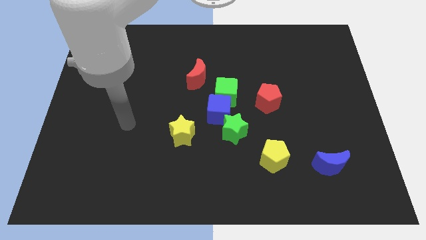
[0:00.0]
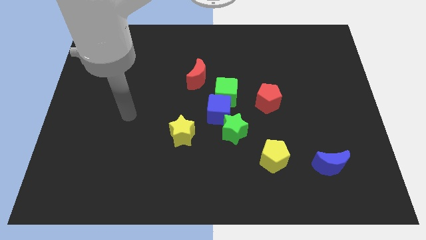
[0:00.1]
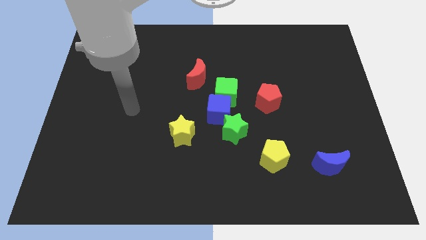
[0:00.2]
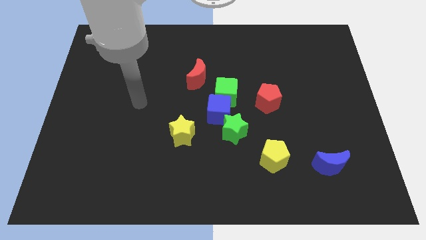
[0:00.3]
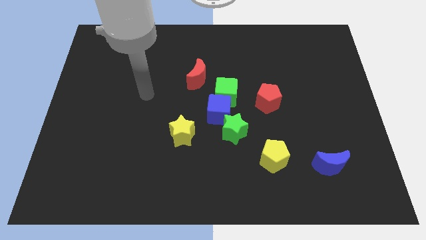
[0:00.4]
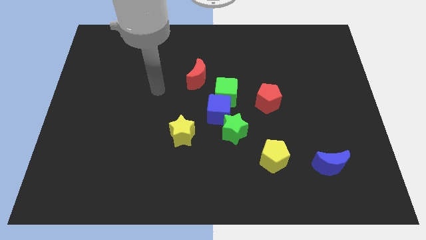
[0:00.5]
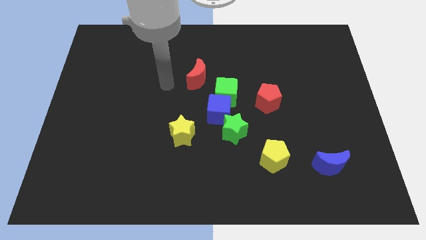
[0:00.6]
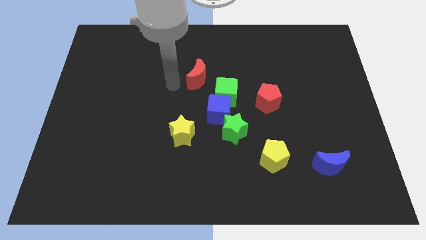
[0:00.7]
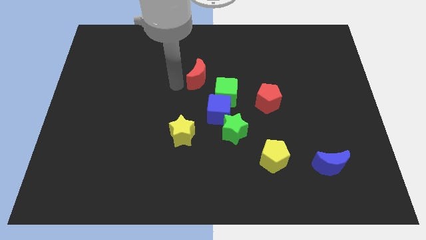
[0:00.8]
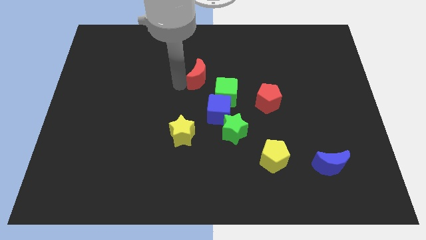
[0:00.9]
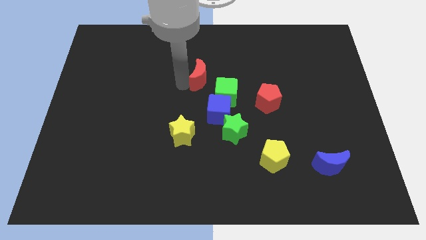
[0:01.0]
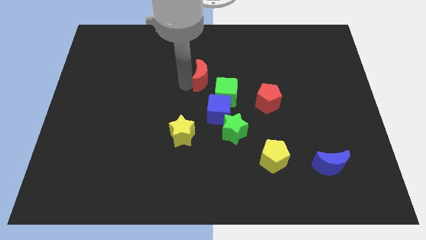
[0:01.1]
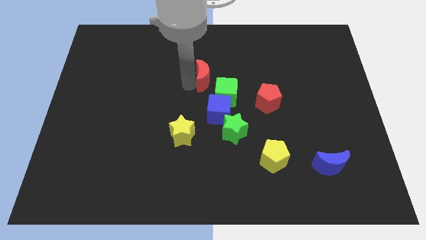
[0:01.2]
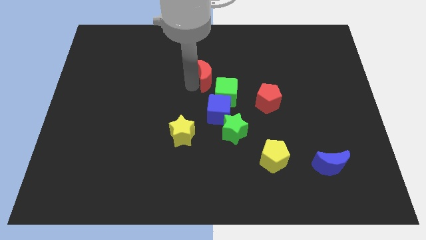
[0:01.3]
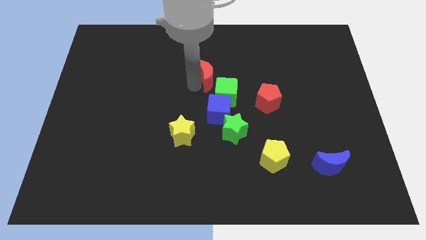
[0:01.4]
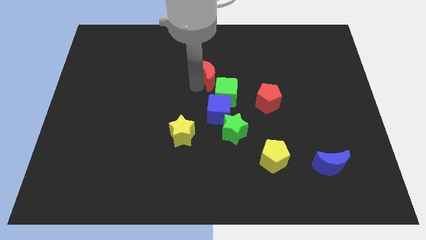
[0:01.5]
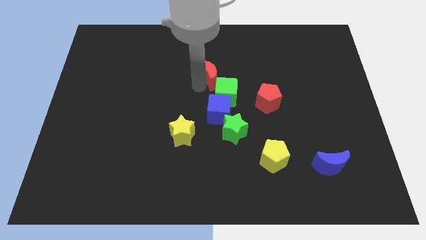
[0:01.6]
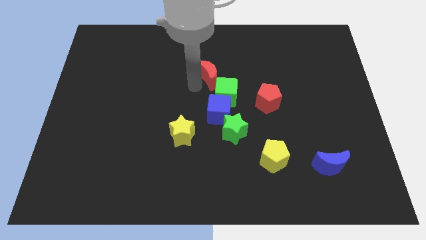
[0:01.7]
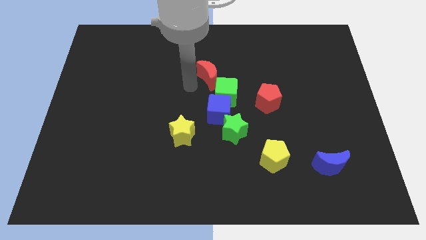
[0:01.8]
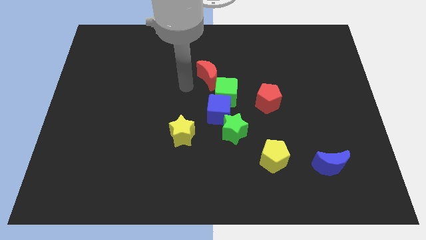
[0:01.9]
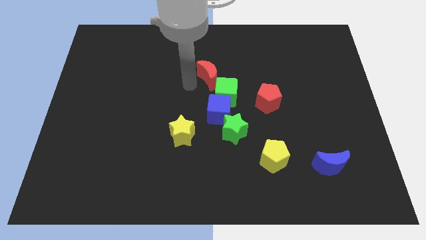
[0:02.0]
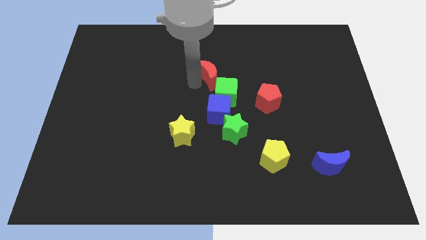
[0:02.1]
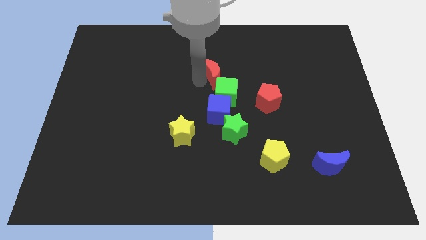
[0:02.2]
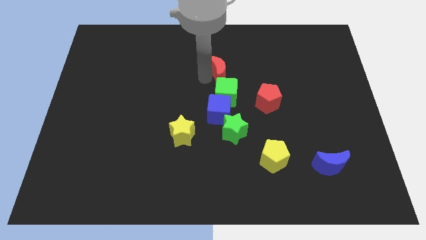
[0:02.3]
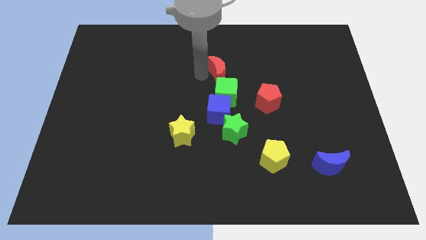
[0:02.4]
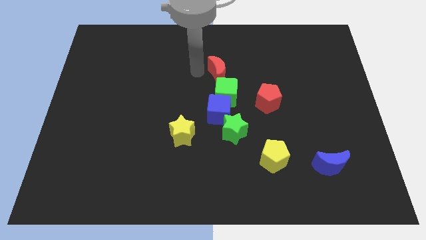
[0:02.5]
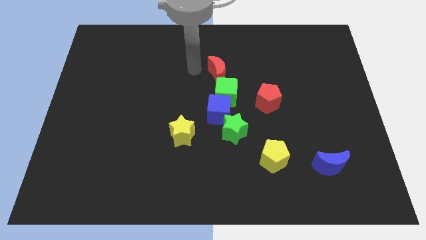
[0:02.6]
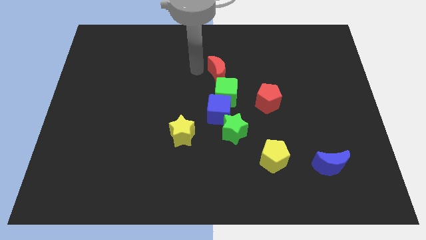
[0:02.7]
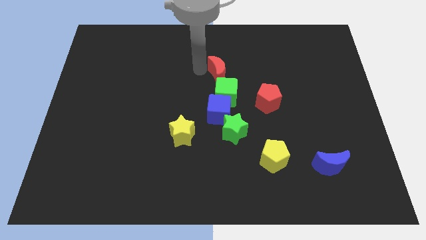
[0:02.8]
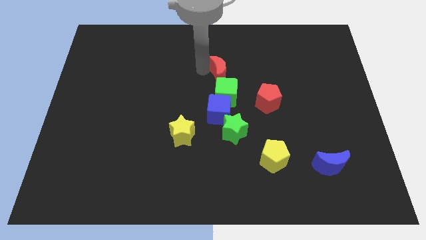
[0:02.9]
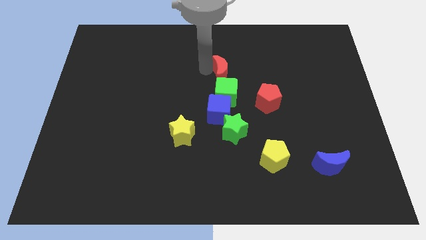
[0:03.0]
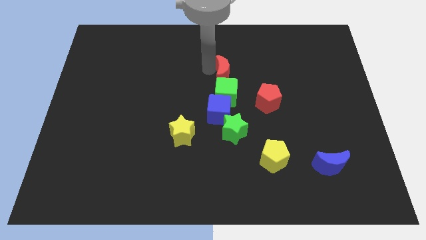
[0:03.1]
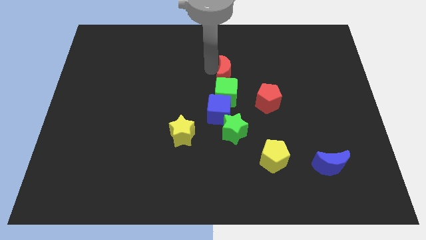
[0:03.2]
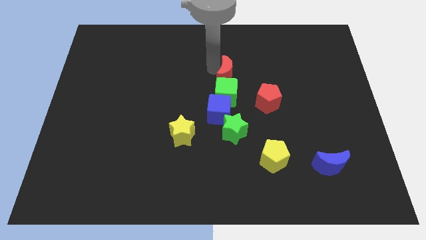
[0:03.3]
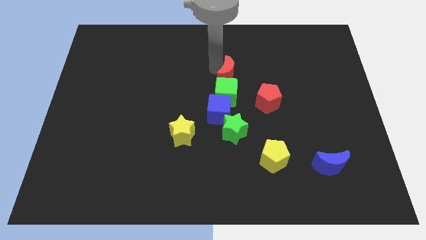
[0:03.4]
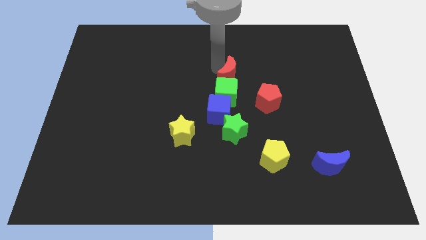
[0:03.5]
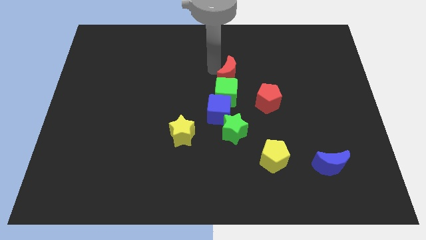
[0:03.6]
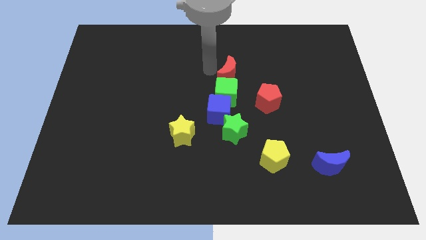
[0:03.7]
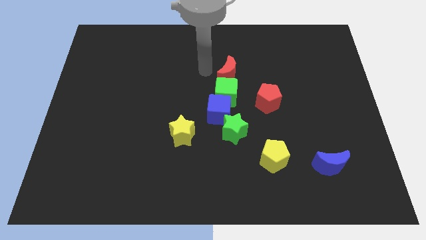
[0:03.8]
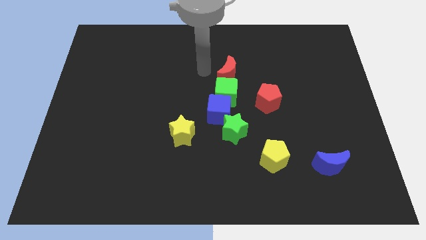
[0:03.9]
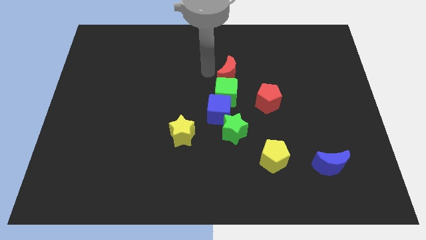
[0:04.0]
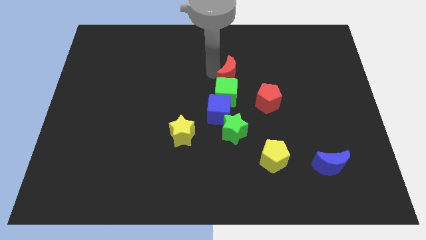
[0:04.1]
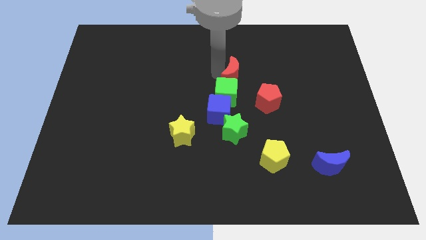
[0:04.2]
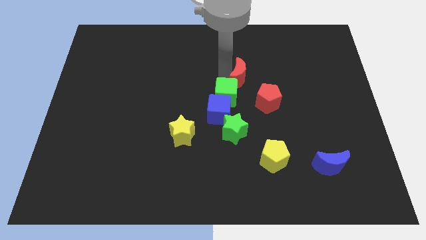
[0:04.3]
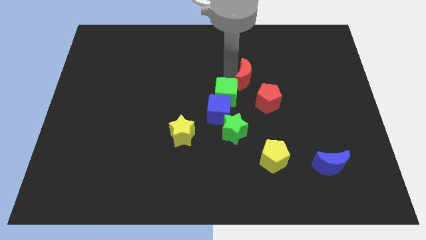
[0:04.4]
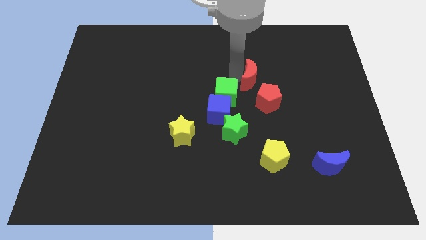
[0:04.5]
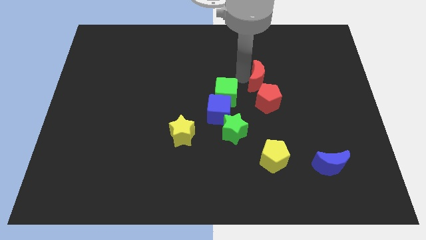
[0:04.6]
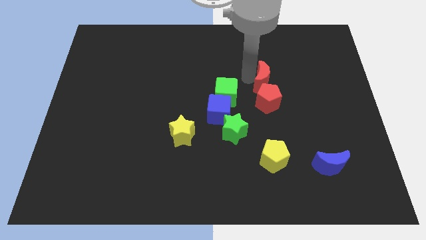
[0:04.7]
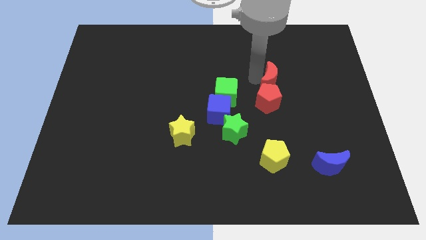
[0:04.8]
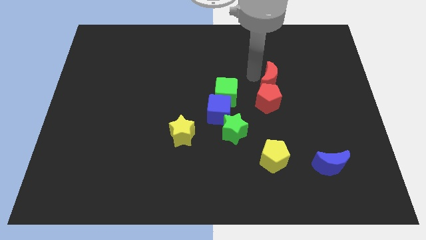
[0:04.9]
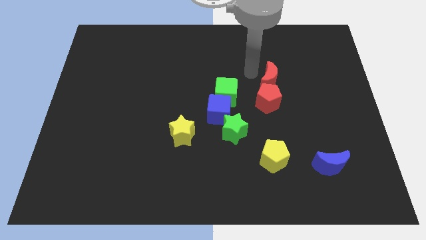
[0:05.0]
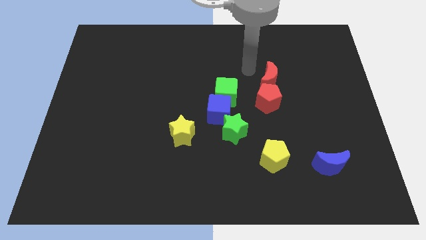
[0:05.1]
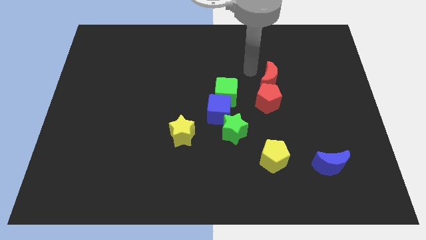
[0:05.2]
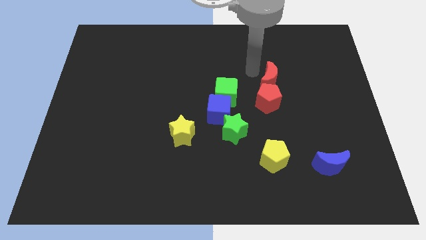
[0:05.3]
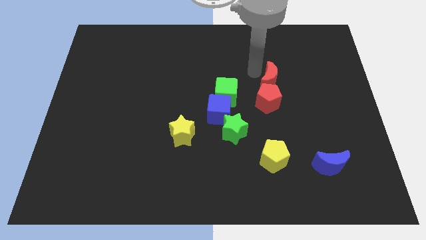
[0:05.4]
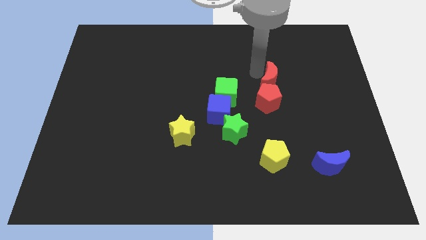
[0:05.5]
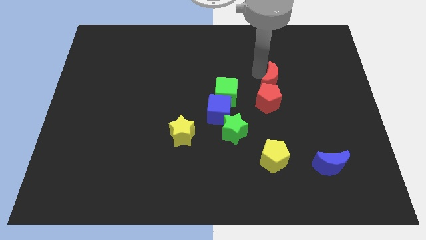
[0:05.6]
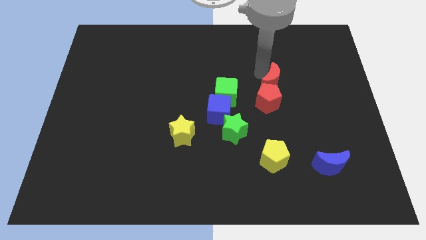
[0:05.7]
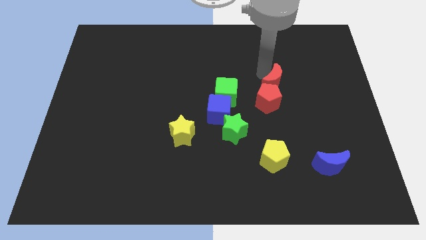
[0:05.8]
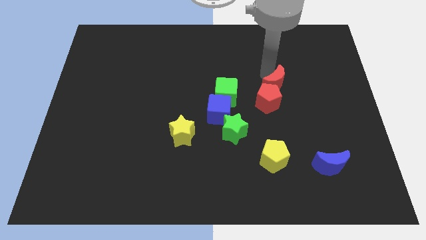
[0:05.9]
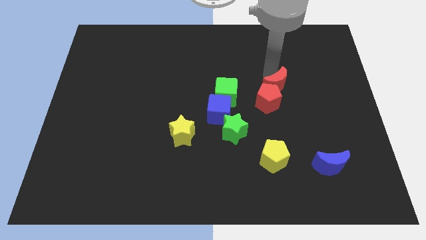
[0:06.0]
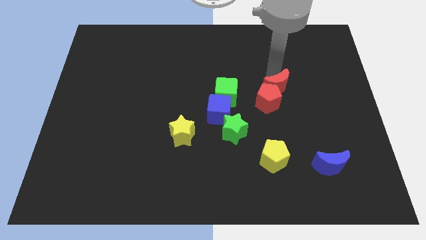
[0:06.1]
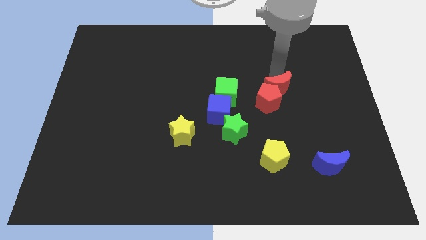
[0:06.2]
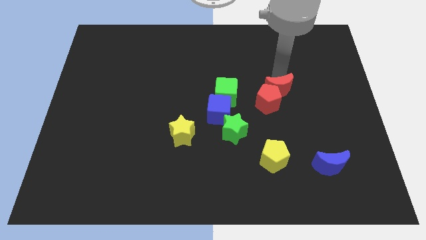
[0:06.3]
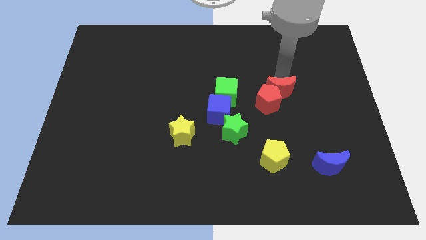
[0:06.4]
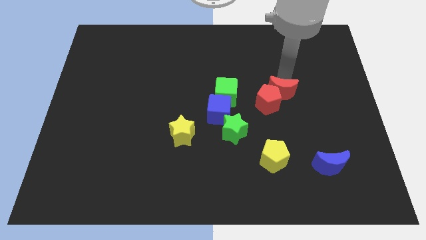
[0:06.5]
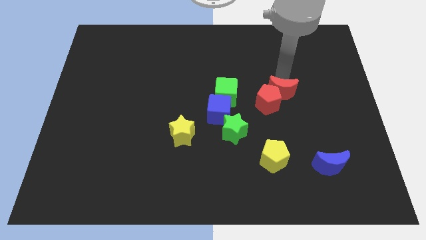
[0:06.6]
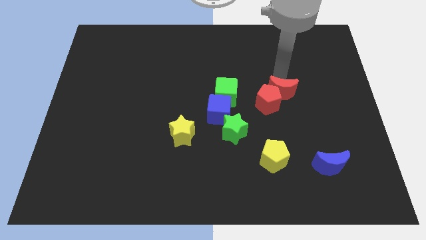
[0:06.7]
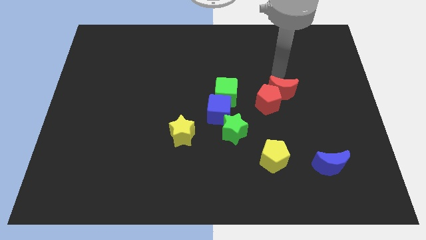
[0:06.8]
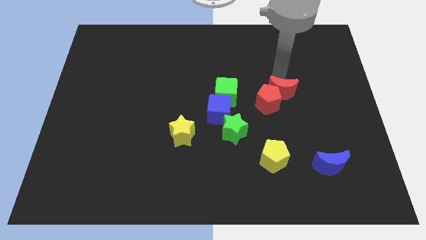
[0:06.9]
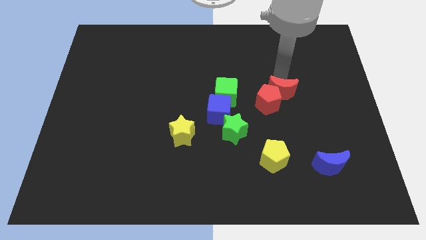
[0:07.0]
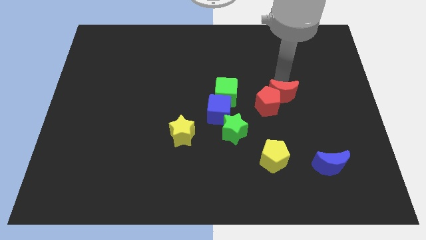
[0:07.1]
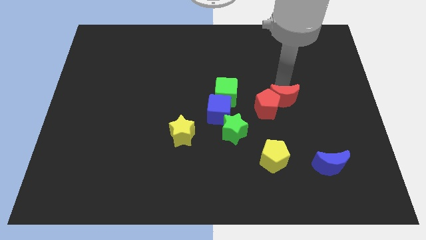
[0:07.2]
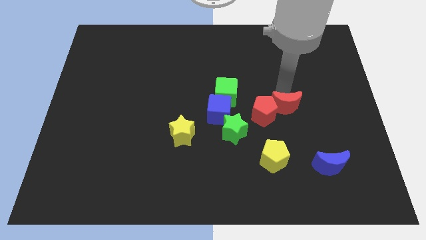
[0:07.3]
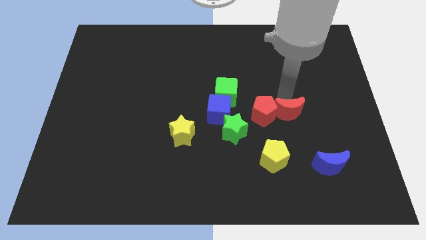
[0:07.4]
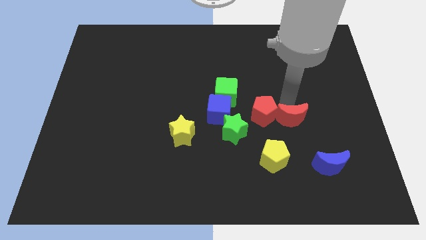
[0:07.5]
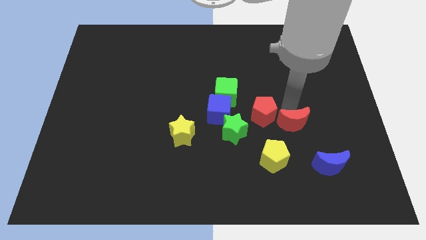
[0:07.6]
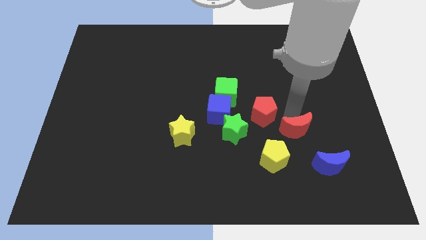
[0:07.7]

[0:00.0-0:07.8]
slide the red moon diagonally up and to the left of the blue moon
